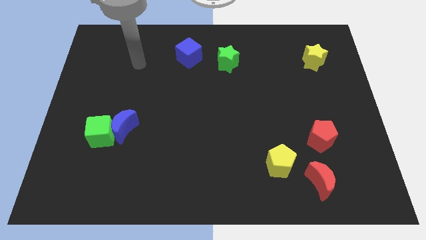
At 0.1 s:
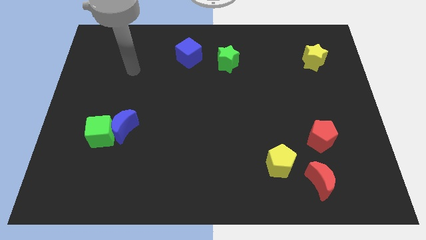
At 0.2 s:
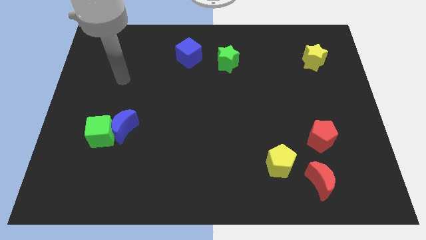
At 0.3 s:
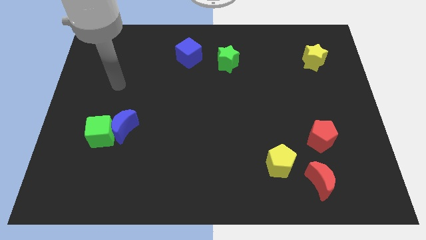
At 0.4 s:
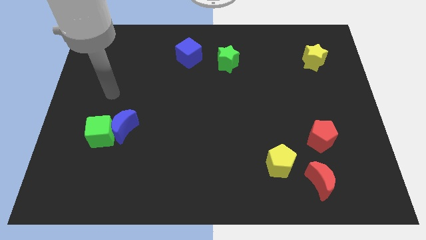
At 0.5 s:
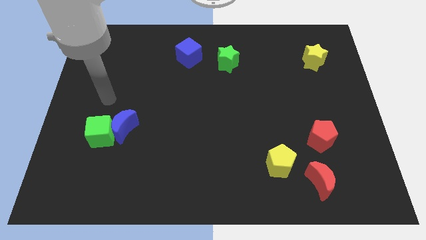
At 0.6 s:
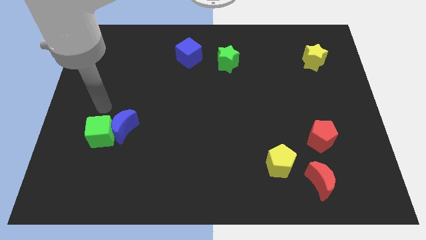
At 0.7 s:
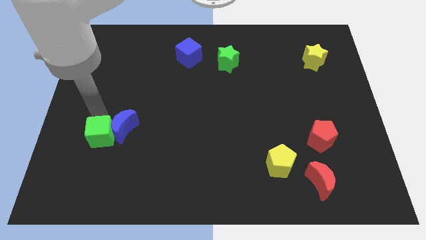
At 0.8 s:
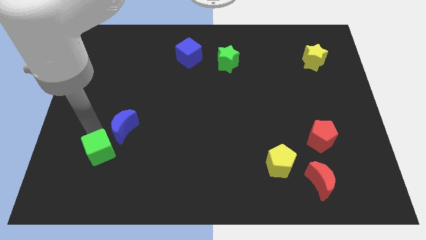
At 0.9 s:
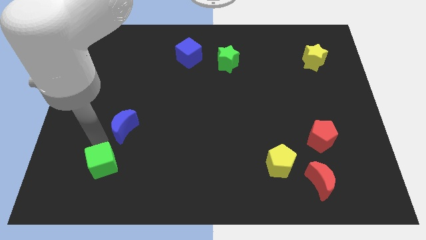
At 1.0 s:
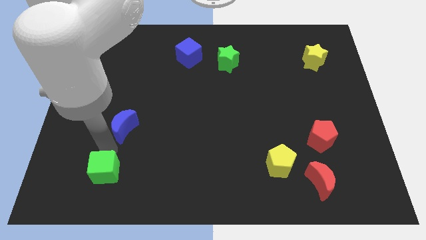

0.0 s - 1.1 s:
pull the blue moon apart from the green cube

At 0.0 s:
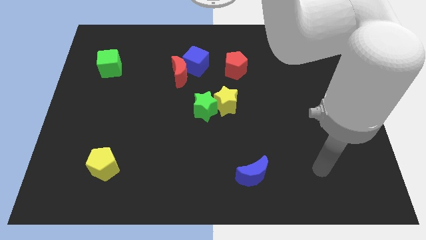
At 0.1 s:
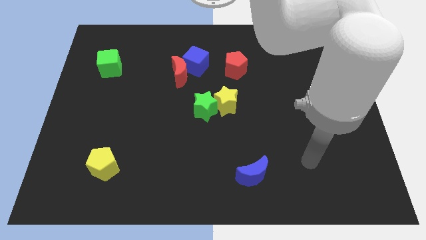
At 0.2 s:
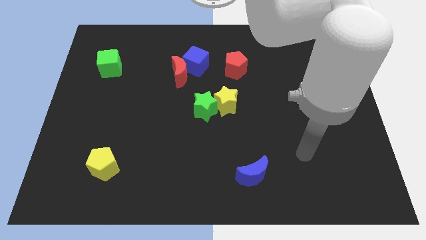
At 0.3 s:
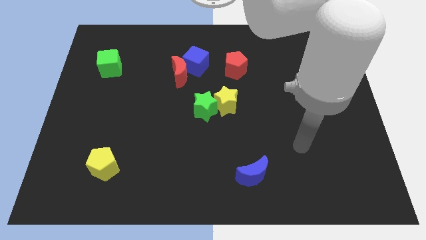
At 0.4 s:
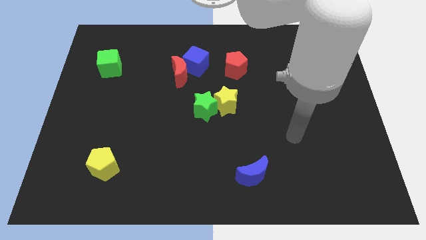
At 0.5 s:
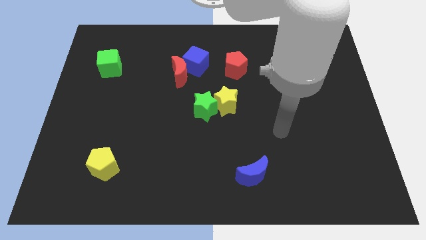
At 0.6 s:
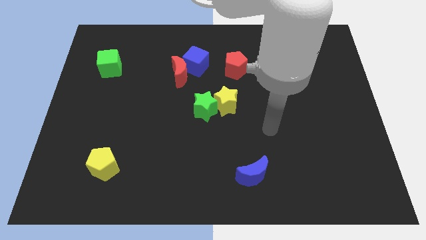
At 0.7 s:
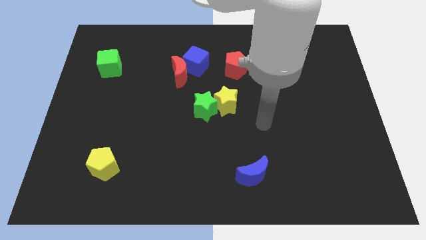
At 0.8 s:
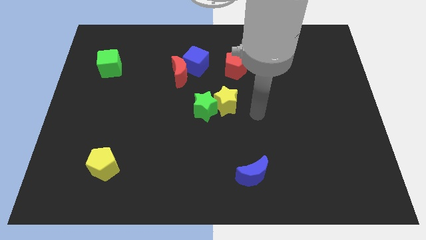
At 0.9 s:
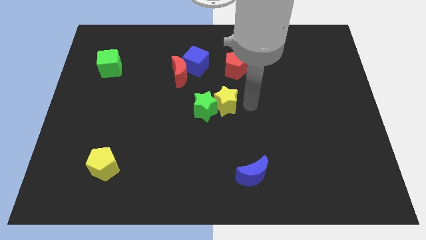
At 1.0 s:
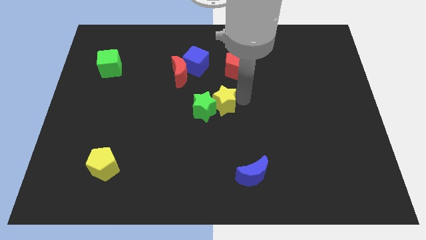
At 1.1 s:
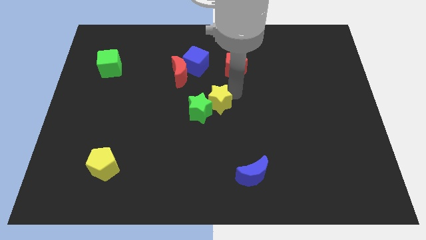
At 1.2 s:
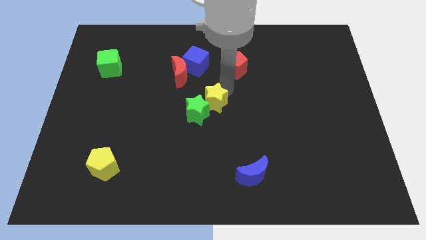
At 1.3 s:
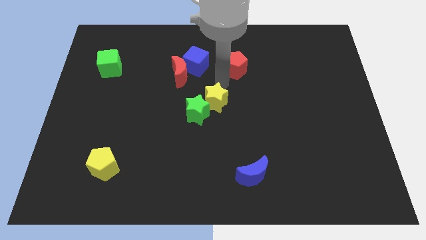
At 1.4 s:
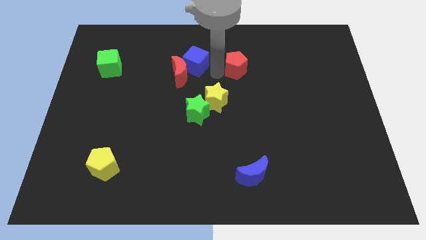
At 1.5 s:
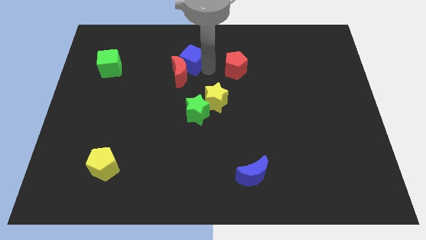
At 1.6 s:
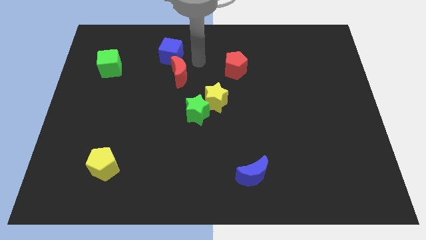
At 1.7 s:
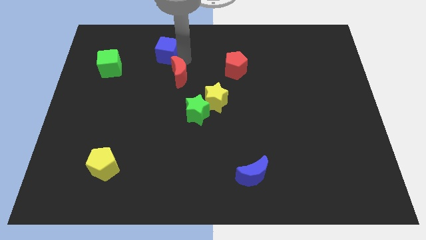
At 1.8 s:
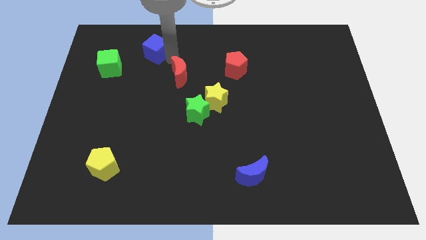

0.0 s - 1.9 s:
move the red moon away from the blue cube

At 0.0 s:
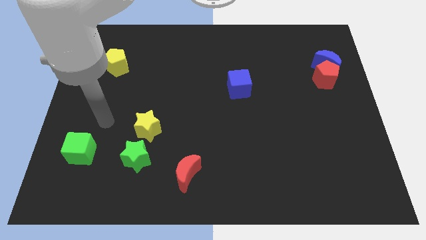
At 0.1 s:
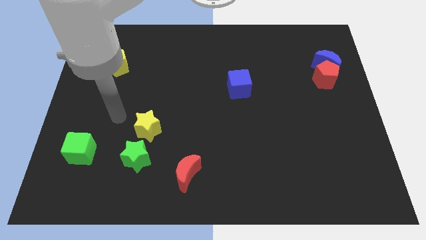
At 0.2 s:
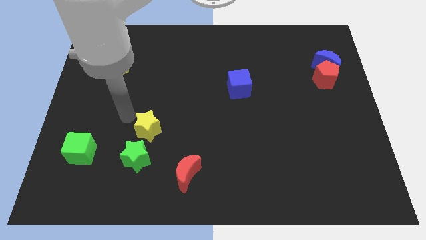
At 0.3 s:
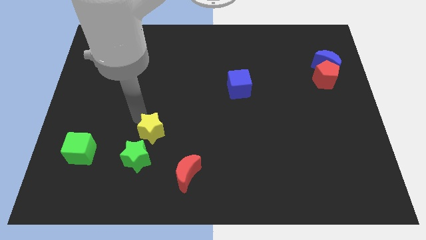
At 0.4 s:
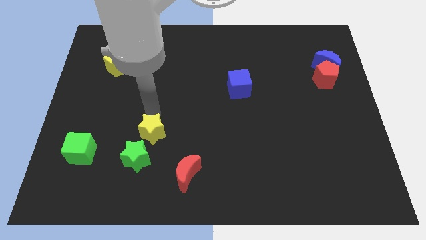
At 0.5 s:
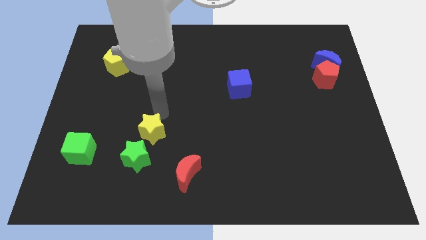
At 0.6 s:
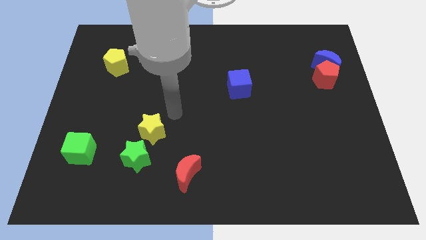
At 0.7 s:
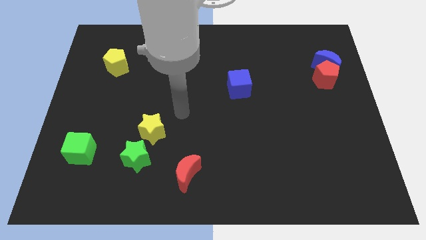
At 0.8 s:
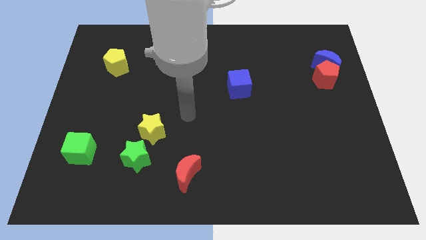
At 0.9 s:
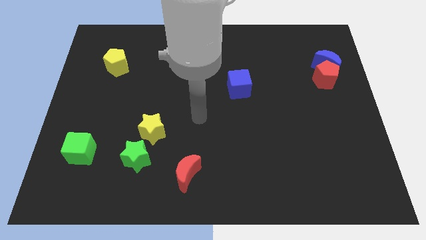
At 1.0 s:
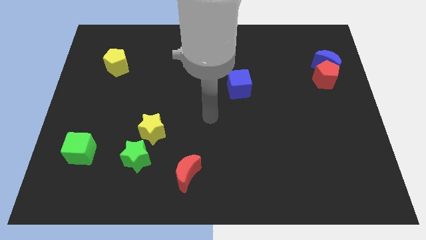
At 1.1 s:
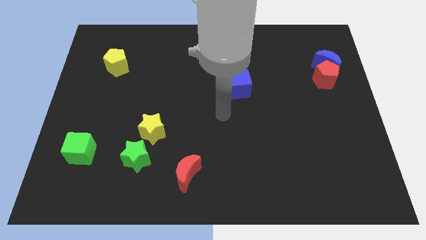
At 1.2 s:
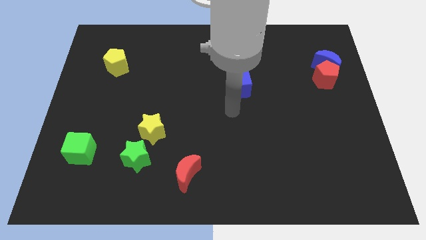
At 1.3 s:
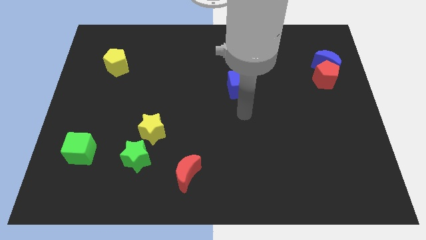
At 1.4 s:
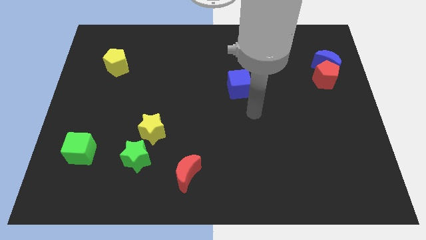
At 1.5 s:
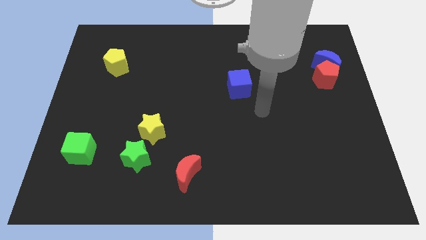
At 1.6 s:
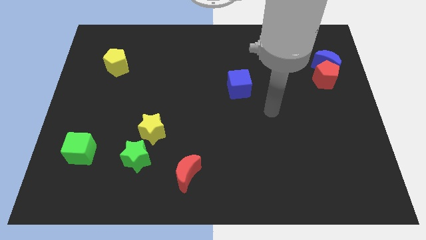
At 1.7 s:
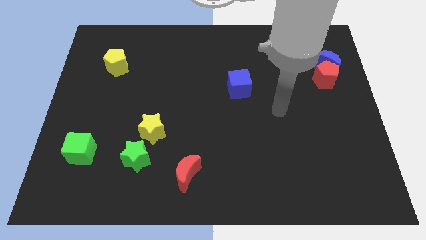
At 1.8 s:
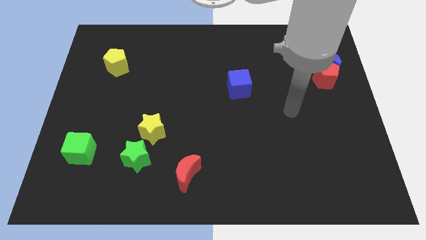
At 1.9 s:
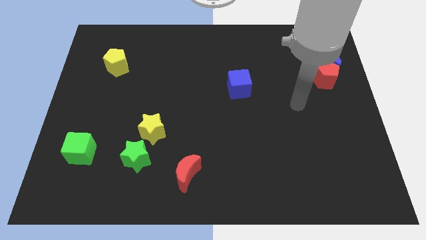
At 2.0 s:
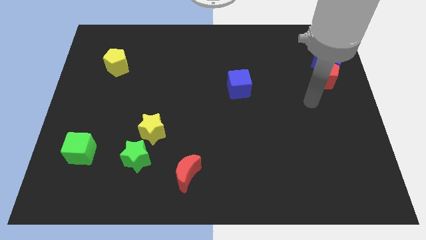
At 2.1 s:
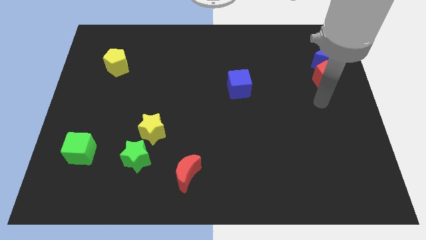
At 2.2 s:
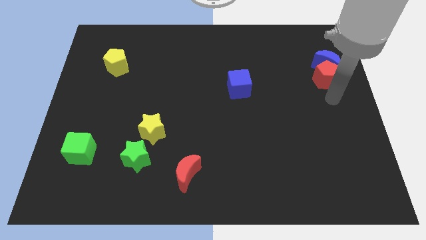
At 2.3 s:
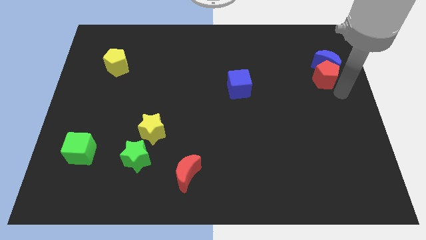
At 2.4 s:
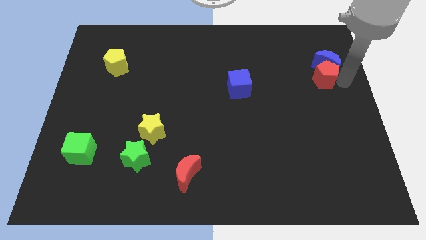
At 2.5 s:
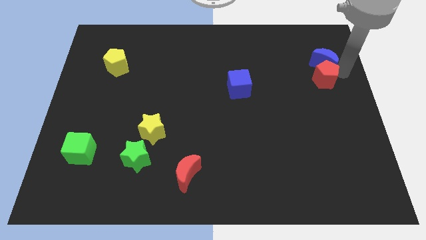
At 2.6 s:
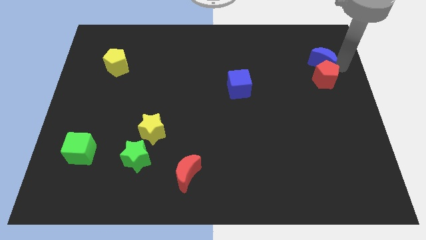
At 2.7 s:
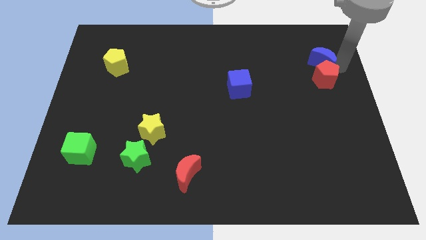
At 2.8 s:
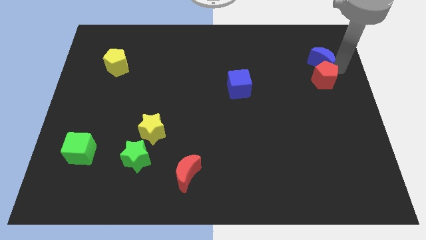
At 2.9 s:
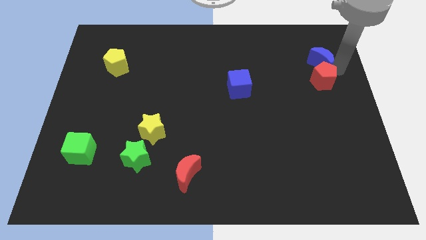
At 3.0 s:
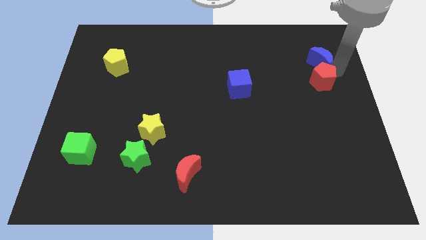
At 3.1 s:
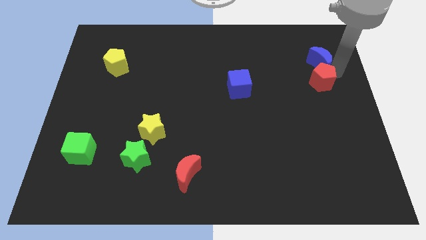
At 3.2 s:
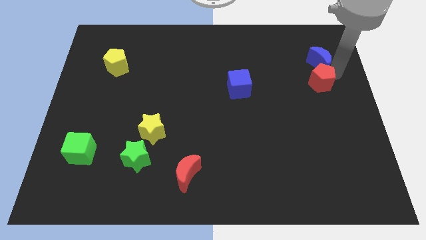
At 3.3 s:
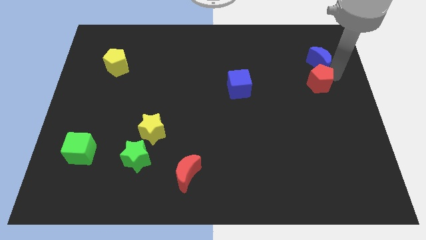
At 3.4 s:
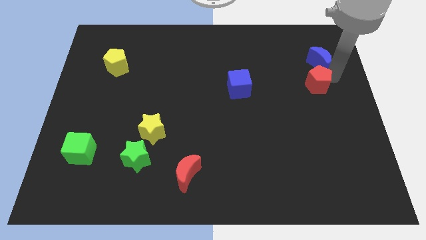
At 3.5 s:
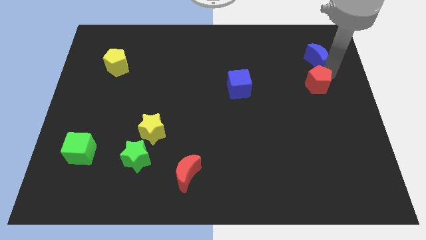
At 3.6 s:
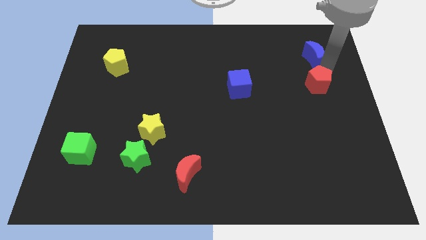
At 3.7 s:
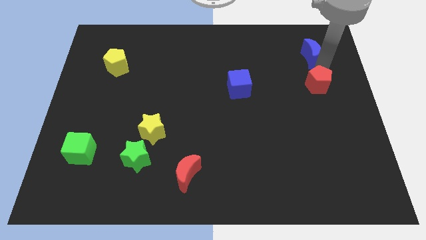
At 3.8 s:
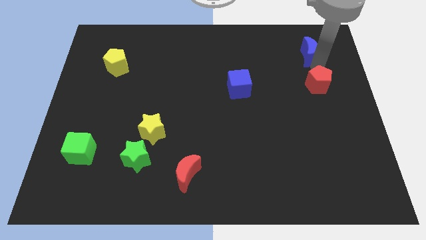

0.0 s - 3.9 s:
move the red pentagon away from the blue moon

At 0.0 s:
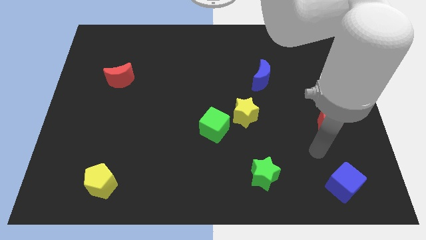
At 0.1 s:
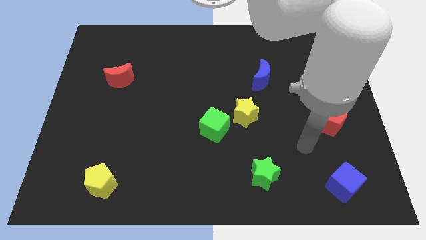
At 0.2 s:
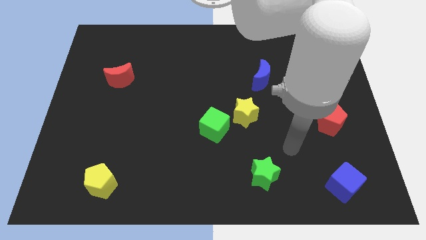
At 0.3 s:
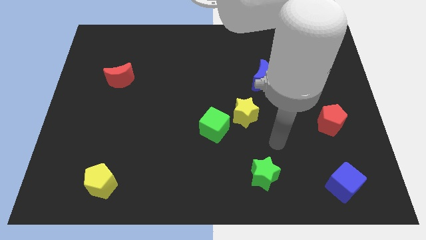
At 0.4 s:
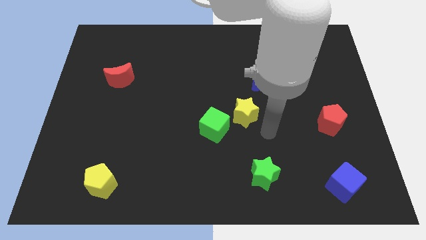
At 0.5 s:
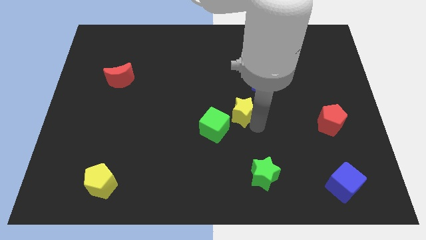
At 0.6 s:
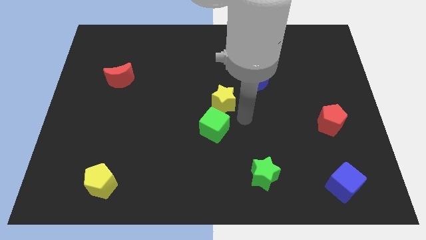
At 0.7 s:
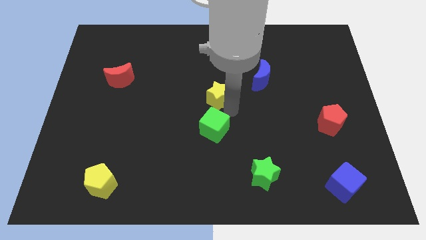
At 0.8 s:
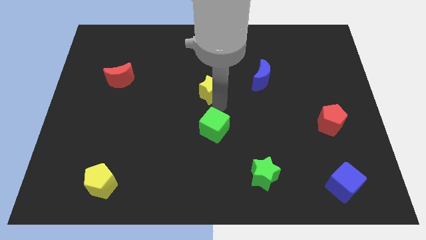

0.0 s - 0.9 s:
move the green cube away from the yellow star

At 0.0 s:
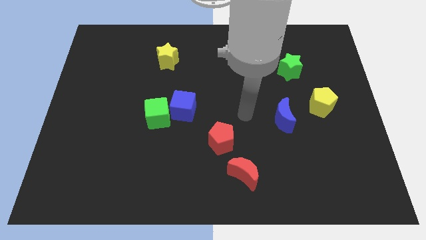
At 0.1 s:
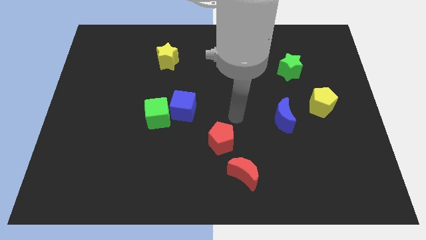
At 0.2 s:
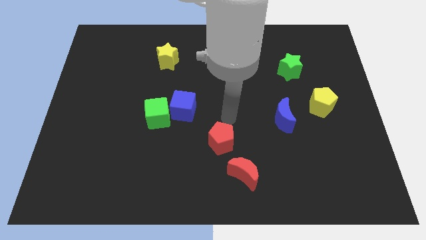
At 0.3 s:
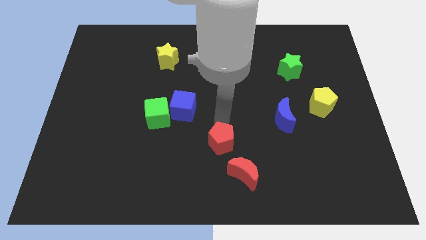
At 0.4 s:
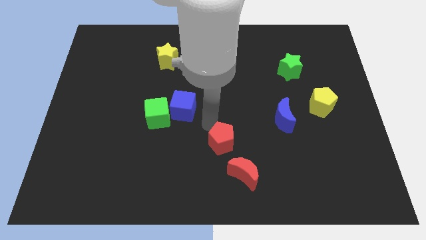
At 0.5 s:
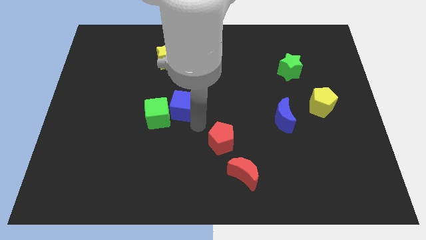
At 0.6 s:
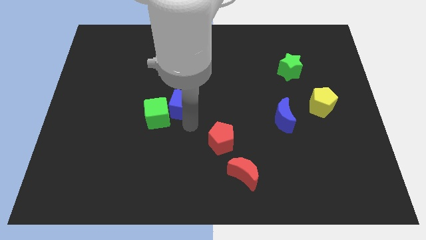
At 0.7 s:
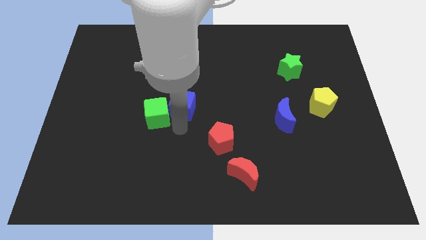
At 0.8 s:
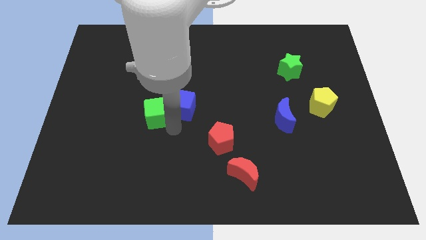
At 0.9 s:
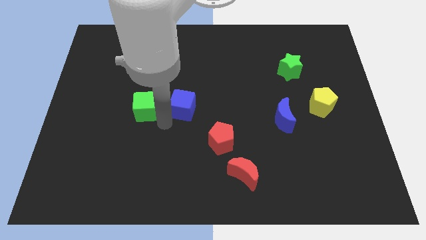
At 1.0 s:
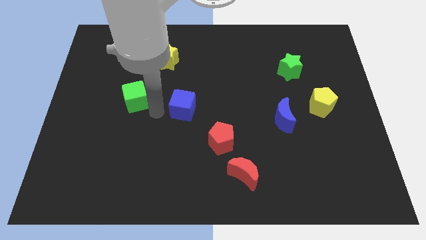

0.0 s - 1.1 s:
separate the blue cube from the green cube

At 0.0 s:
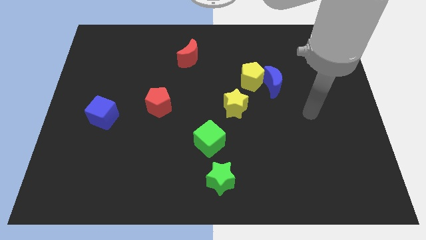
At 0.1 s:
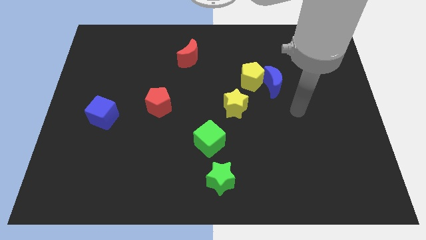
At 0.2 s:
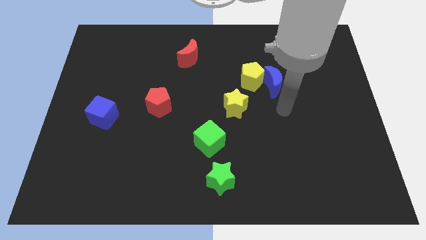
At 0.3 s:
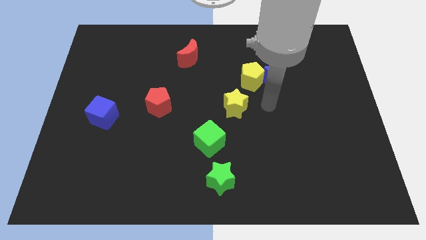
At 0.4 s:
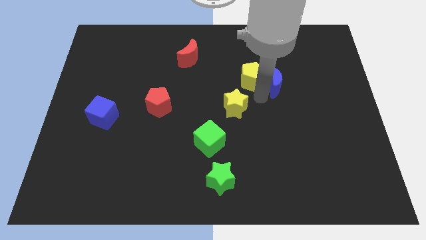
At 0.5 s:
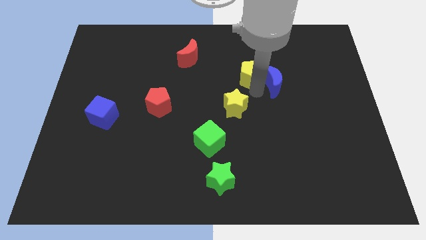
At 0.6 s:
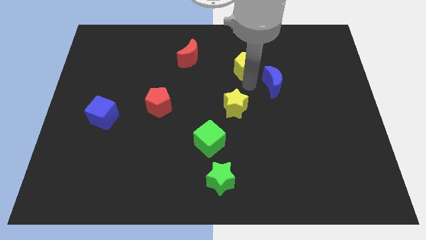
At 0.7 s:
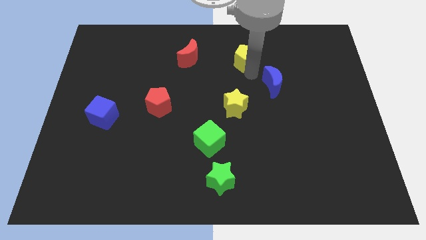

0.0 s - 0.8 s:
move the blue moon away from the yellow pentagon
